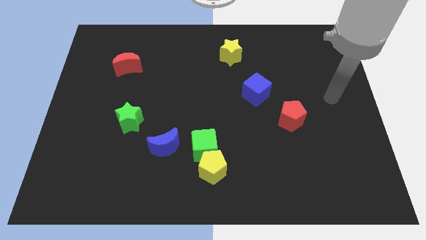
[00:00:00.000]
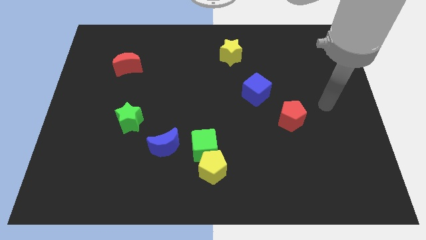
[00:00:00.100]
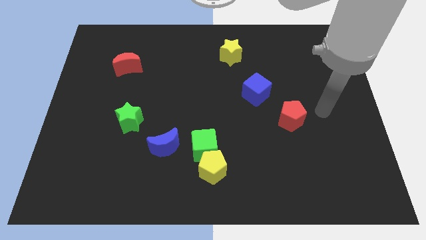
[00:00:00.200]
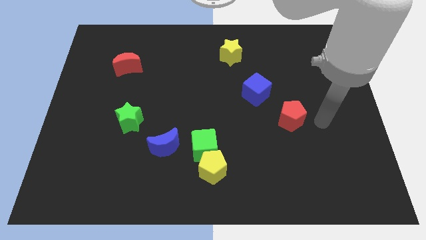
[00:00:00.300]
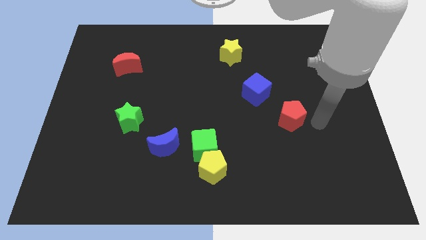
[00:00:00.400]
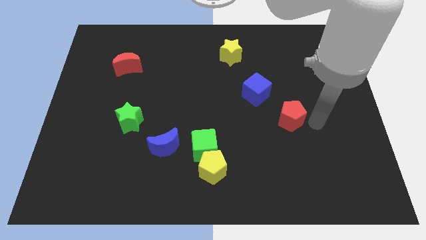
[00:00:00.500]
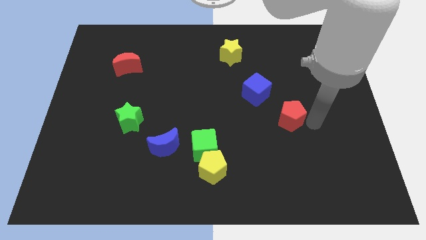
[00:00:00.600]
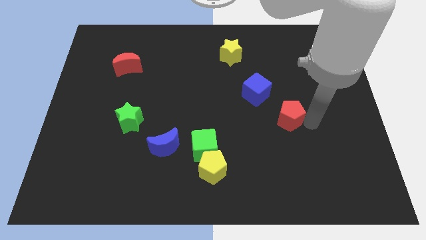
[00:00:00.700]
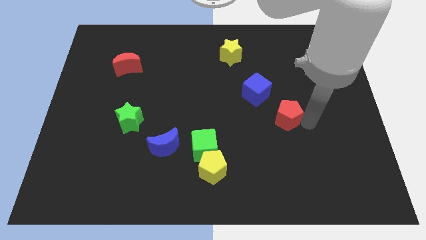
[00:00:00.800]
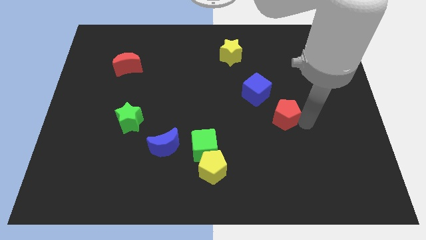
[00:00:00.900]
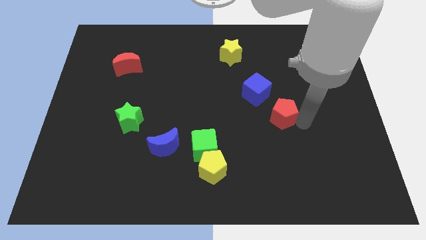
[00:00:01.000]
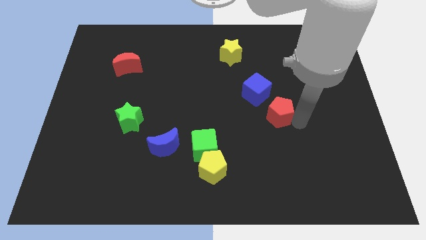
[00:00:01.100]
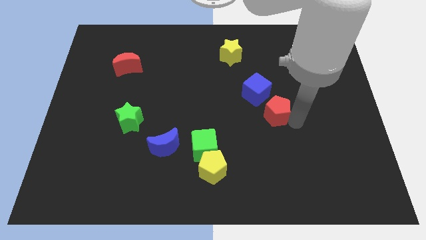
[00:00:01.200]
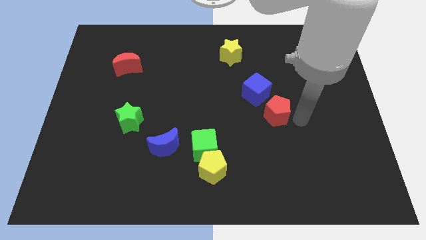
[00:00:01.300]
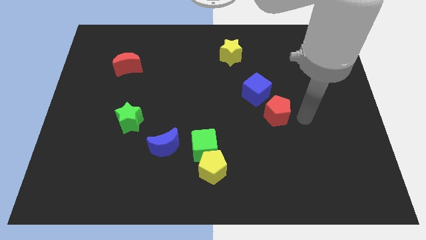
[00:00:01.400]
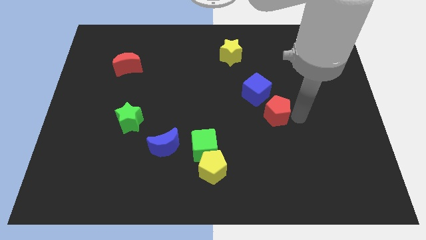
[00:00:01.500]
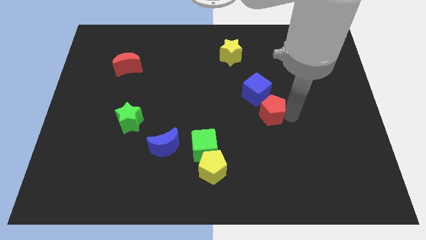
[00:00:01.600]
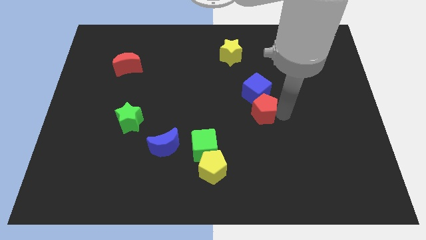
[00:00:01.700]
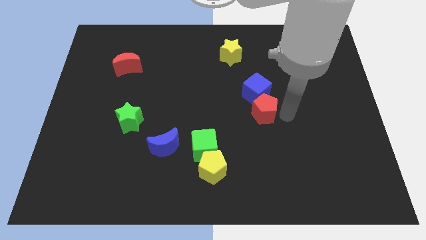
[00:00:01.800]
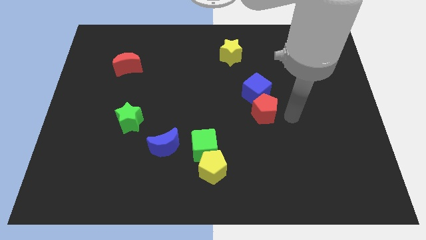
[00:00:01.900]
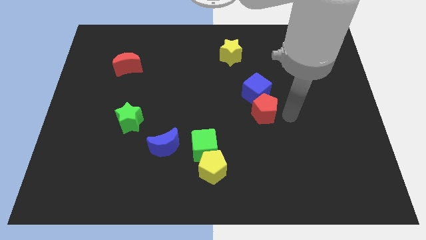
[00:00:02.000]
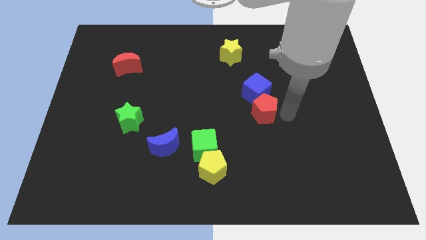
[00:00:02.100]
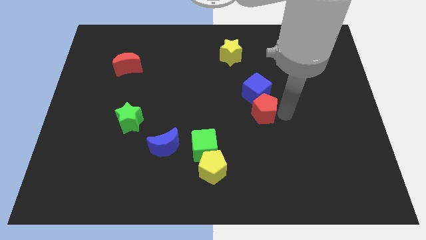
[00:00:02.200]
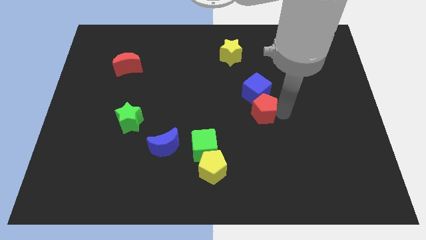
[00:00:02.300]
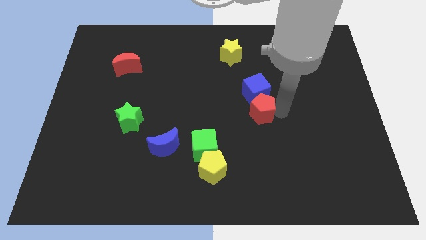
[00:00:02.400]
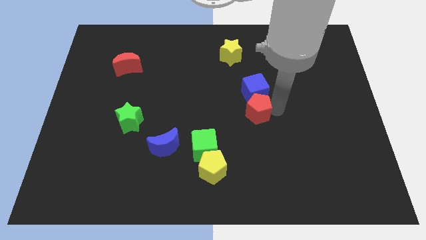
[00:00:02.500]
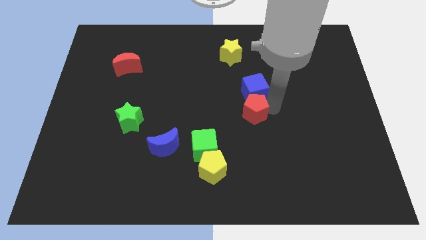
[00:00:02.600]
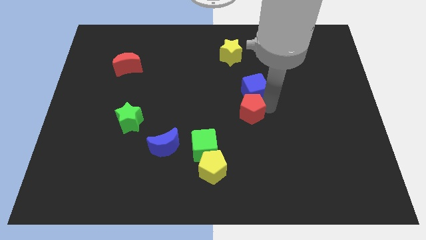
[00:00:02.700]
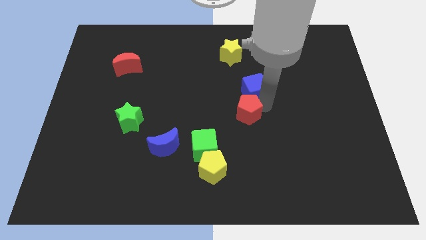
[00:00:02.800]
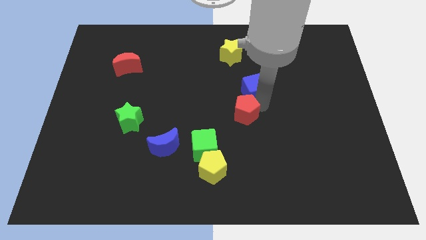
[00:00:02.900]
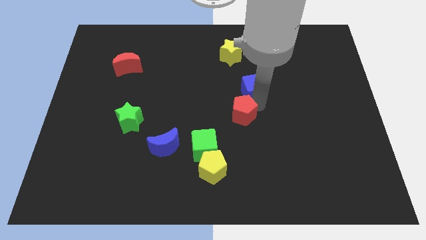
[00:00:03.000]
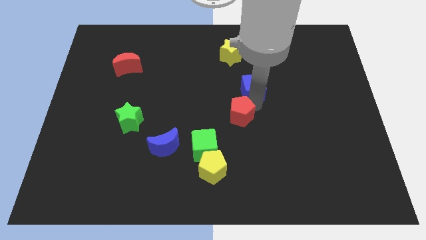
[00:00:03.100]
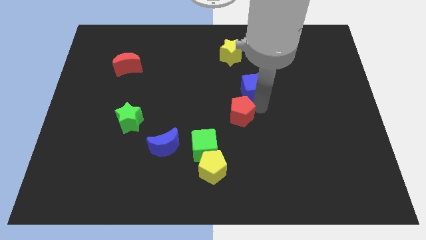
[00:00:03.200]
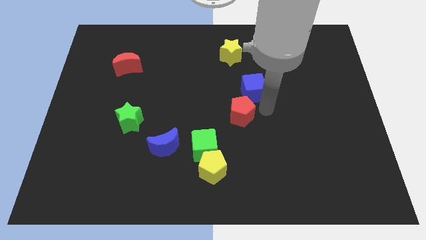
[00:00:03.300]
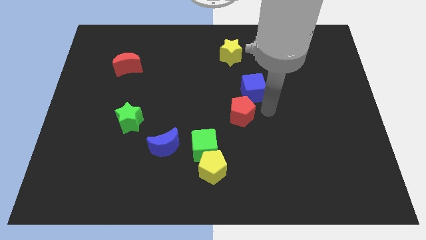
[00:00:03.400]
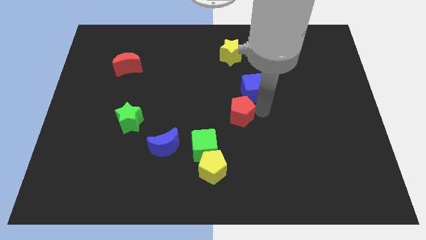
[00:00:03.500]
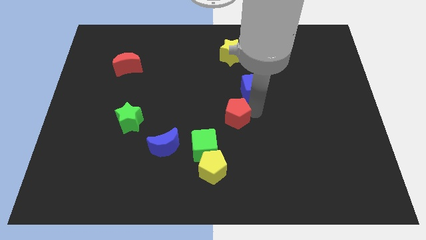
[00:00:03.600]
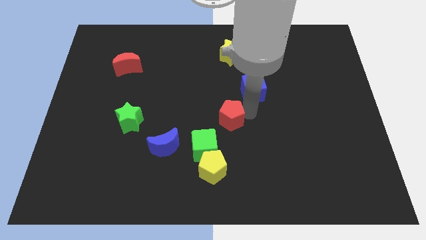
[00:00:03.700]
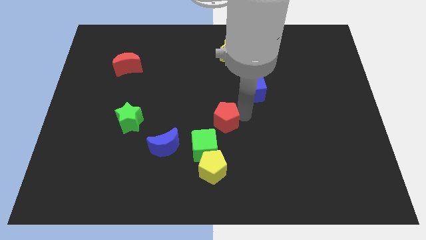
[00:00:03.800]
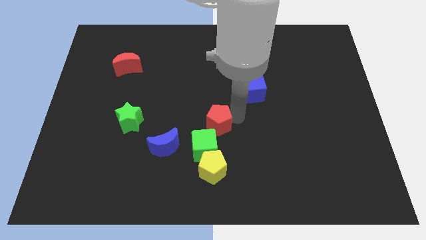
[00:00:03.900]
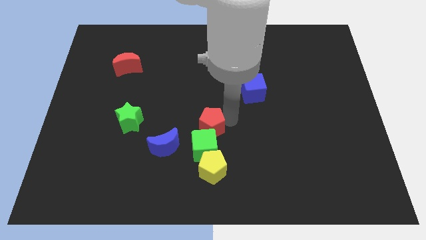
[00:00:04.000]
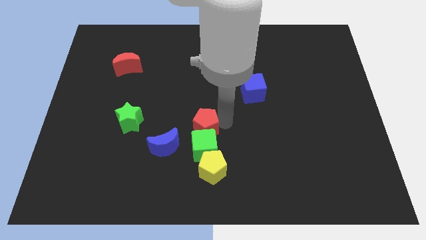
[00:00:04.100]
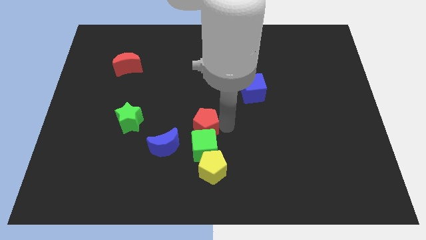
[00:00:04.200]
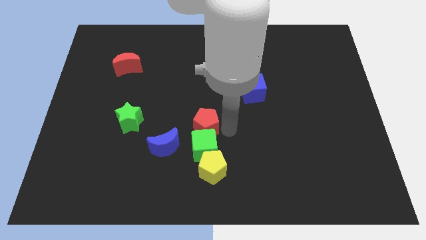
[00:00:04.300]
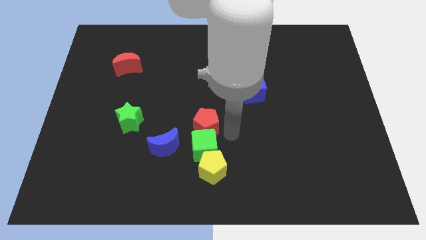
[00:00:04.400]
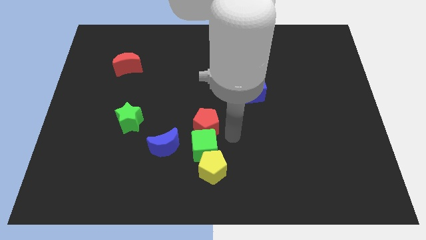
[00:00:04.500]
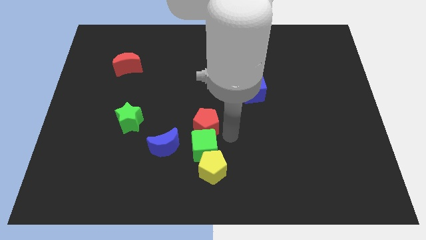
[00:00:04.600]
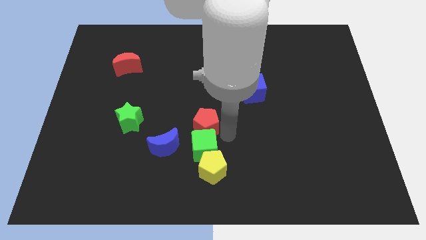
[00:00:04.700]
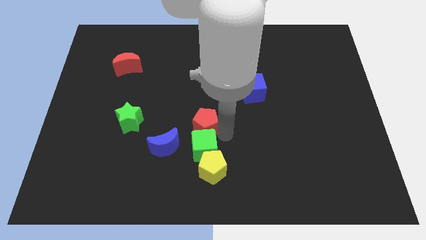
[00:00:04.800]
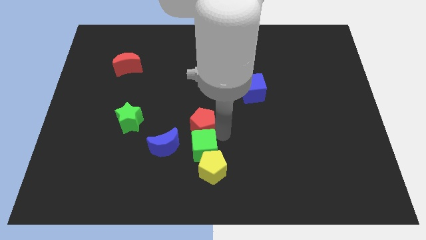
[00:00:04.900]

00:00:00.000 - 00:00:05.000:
move the red pentagon left

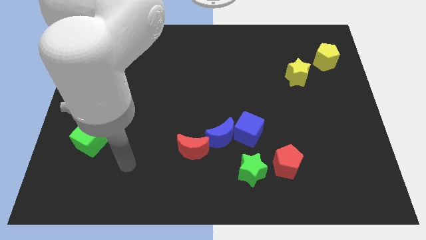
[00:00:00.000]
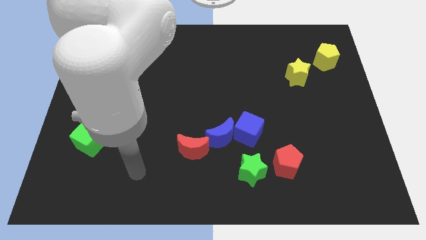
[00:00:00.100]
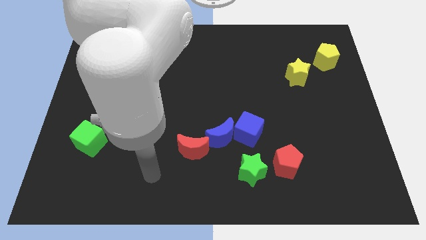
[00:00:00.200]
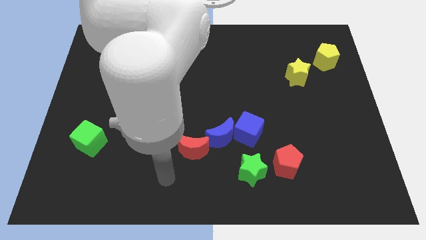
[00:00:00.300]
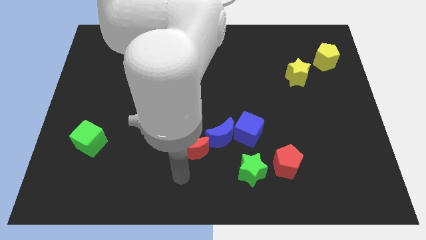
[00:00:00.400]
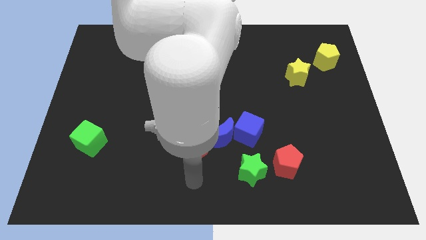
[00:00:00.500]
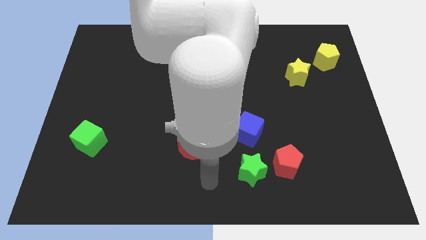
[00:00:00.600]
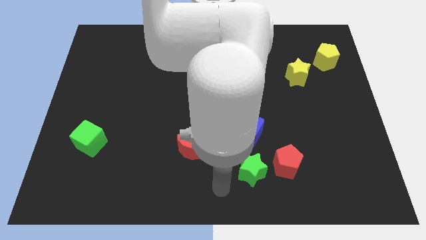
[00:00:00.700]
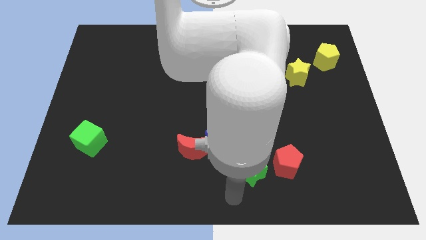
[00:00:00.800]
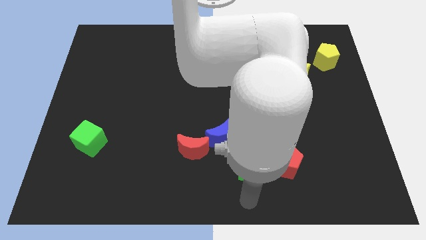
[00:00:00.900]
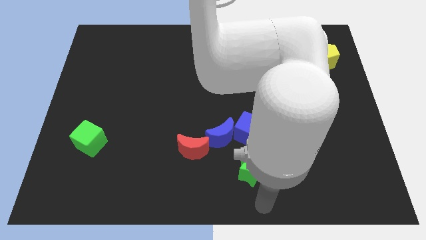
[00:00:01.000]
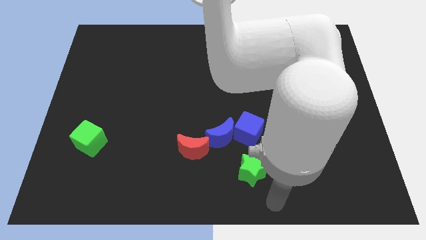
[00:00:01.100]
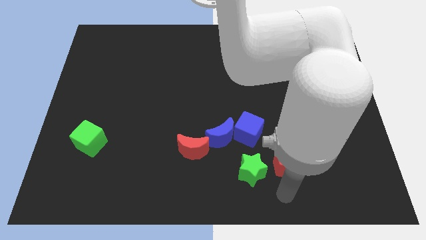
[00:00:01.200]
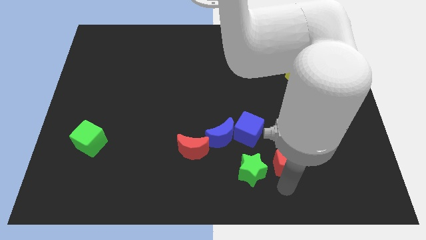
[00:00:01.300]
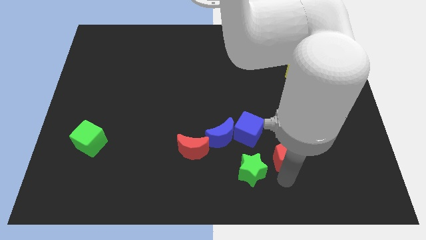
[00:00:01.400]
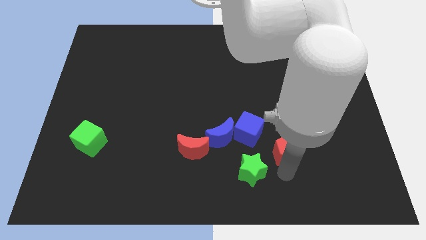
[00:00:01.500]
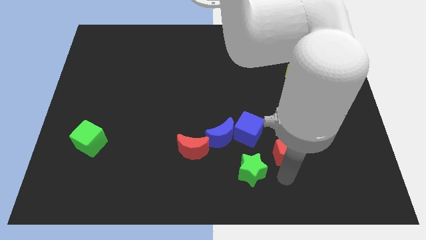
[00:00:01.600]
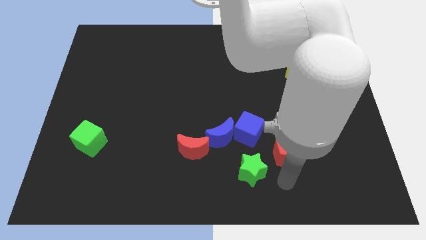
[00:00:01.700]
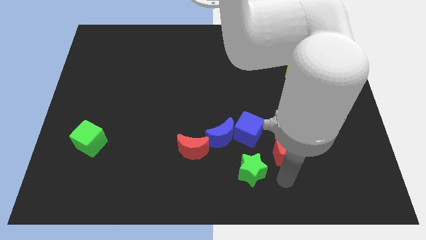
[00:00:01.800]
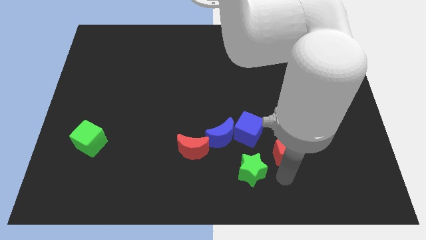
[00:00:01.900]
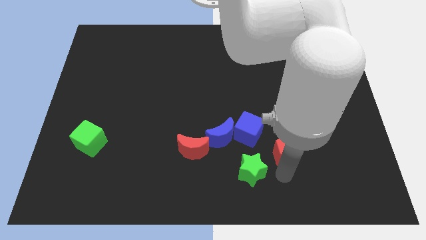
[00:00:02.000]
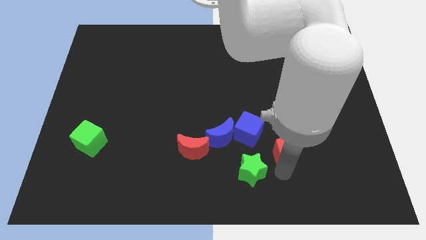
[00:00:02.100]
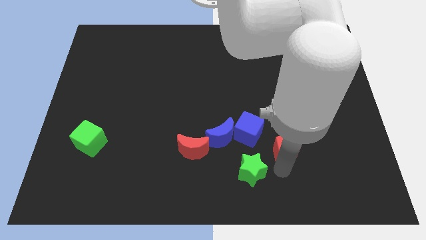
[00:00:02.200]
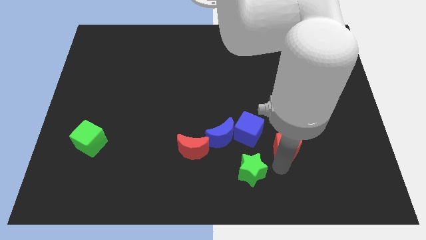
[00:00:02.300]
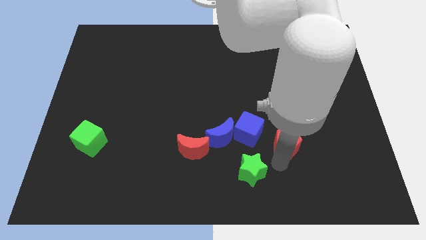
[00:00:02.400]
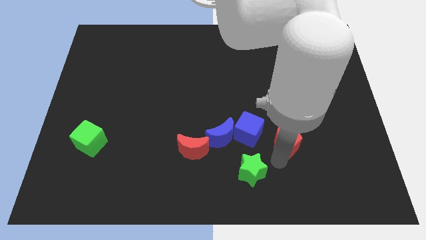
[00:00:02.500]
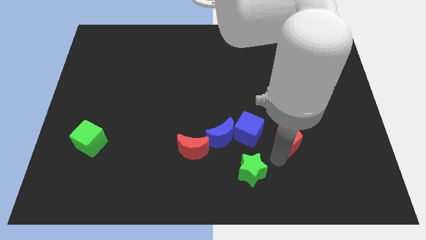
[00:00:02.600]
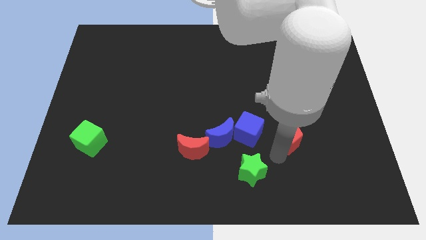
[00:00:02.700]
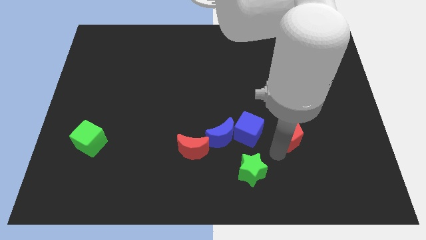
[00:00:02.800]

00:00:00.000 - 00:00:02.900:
slightly slide the red pentagon upwards
